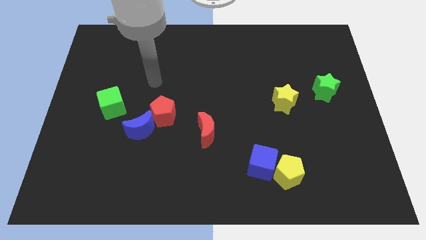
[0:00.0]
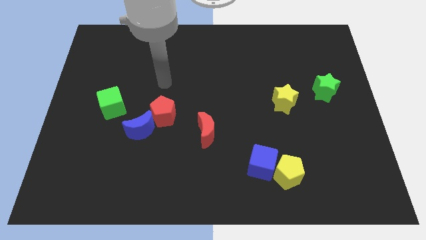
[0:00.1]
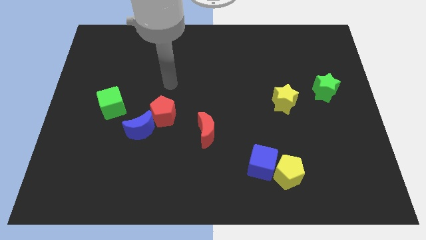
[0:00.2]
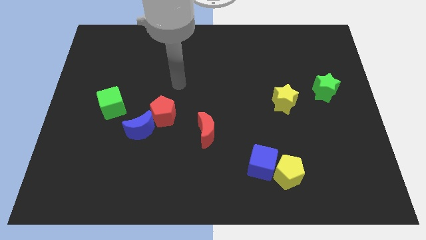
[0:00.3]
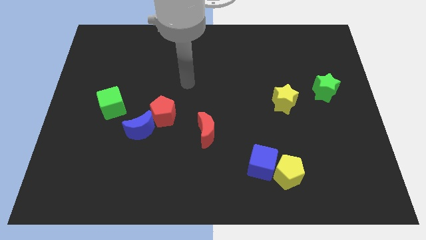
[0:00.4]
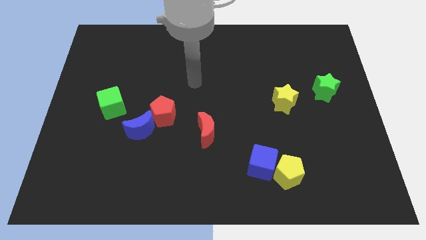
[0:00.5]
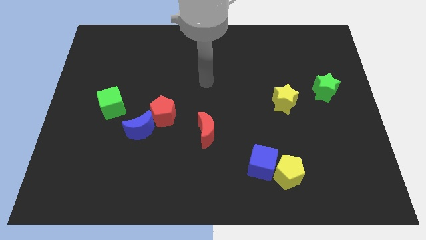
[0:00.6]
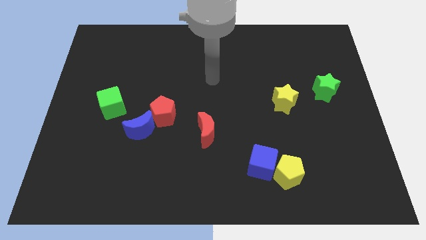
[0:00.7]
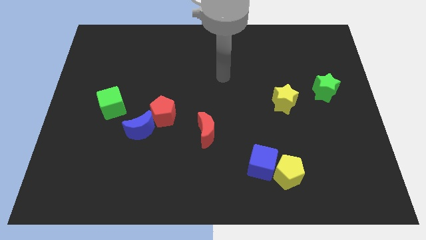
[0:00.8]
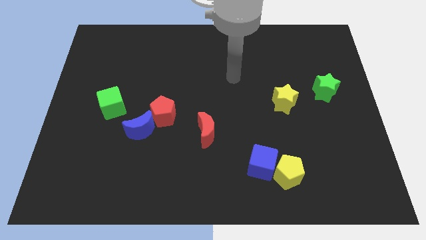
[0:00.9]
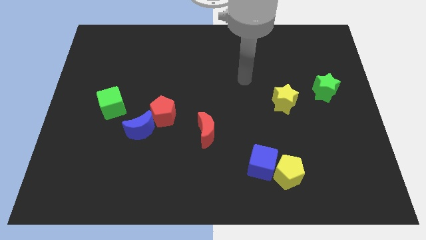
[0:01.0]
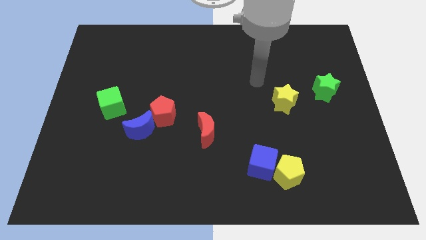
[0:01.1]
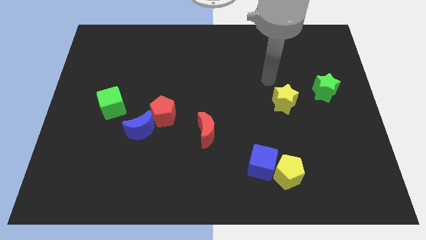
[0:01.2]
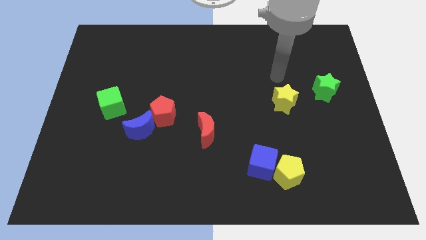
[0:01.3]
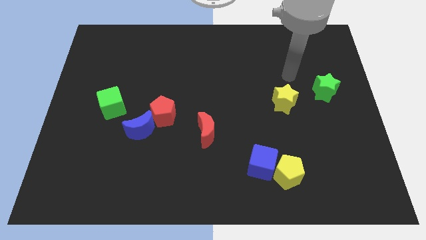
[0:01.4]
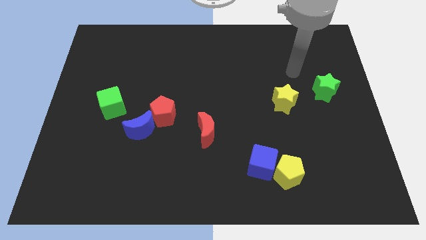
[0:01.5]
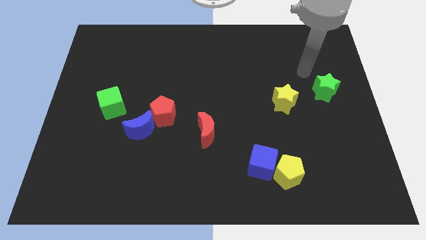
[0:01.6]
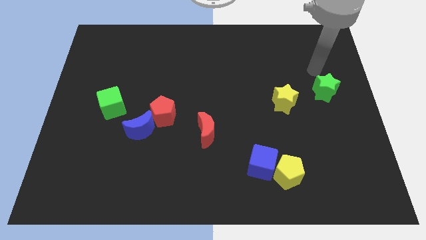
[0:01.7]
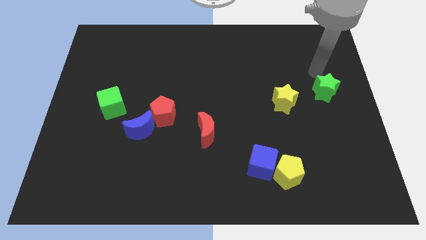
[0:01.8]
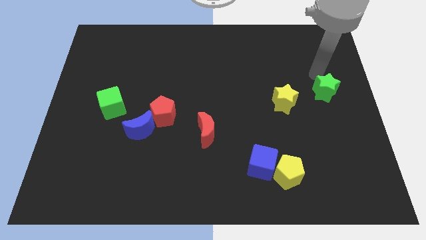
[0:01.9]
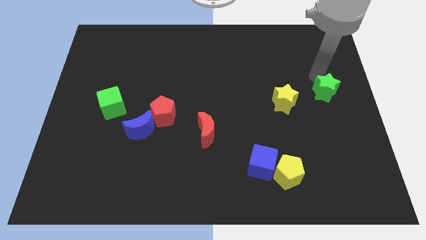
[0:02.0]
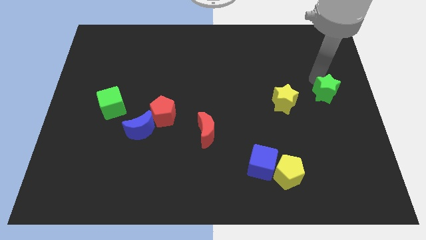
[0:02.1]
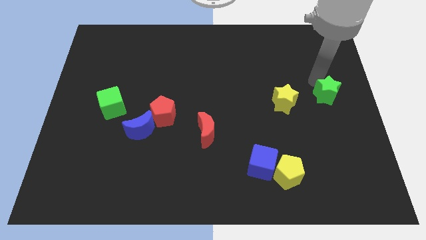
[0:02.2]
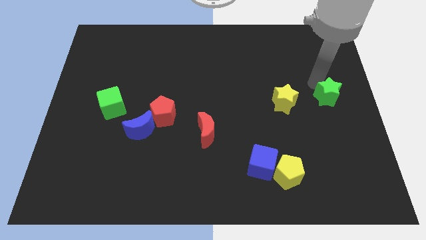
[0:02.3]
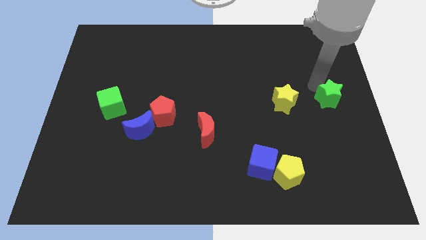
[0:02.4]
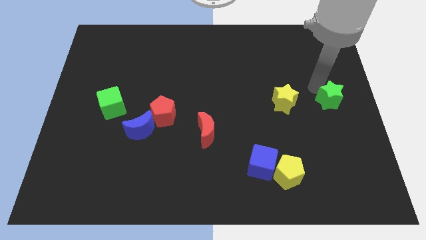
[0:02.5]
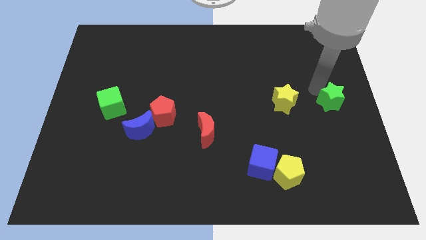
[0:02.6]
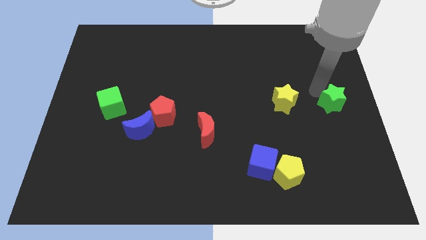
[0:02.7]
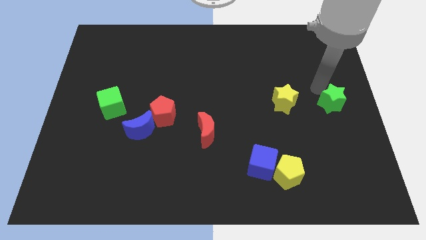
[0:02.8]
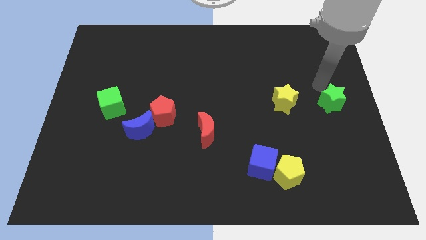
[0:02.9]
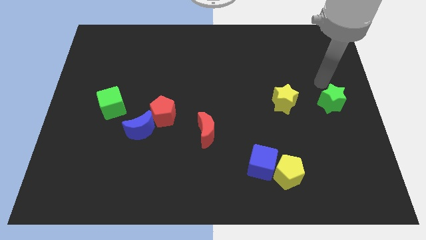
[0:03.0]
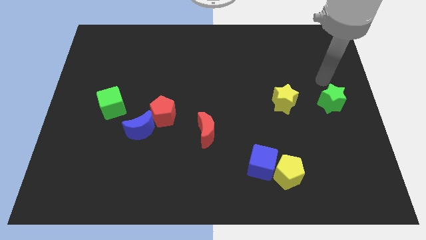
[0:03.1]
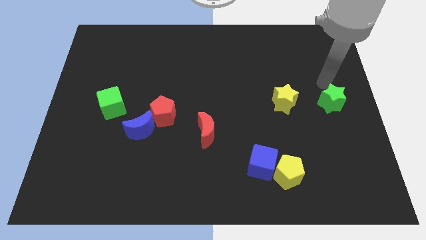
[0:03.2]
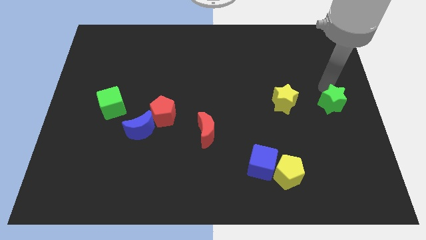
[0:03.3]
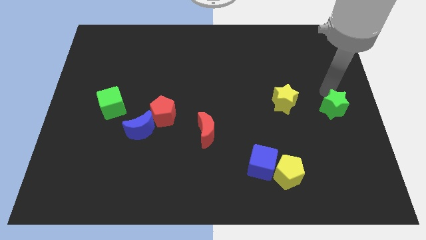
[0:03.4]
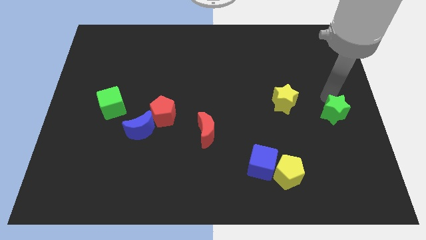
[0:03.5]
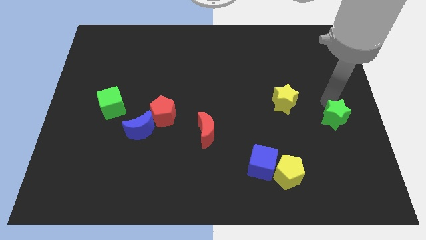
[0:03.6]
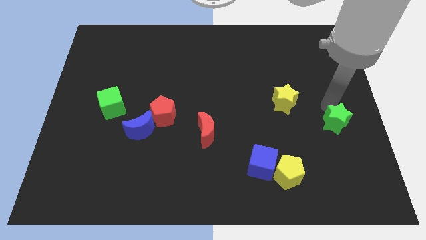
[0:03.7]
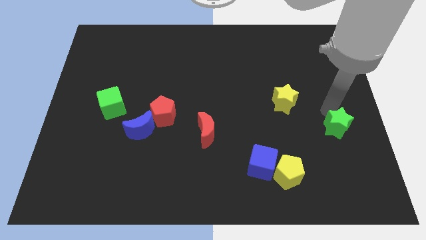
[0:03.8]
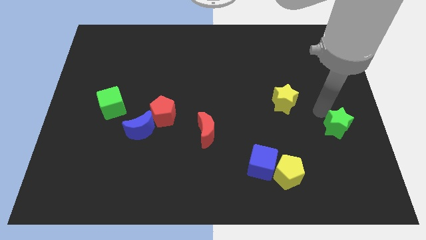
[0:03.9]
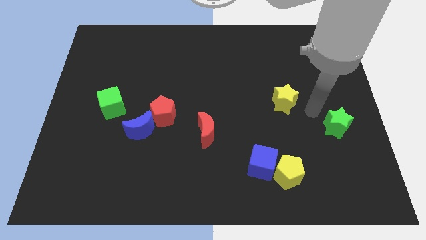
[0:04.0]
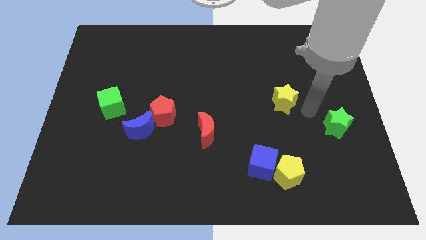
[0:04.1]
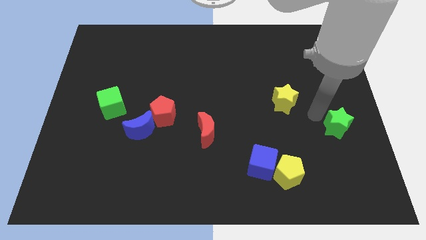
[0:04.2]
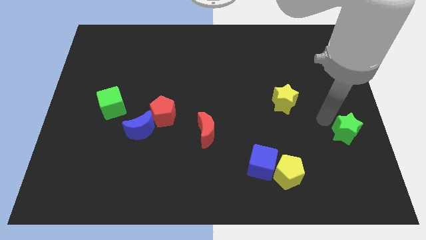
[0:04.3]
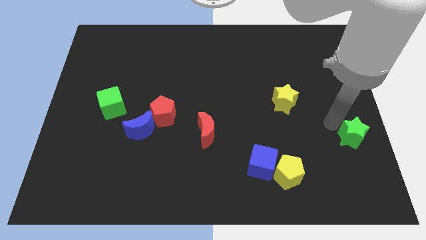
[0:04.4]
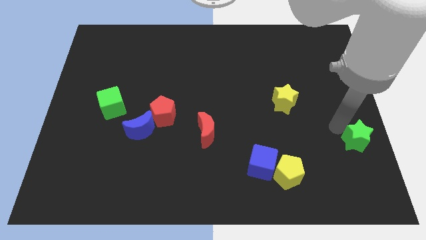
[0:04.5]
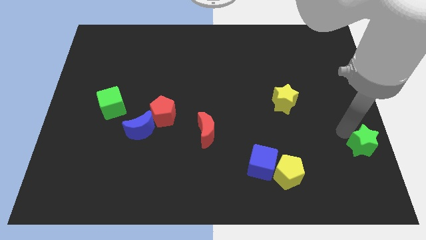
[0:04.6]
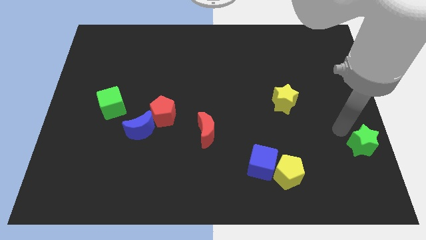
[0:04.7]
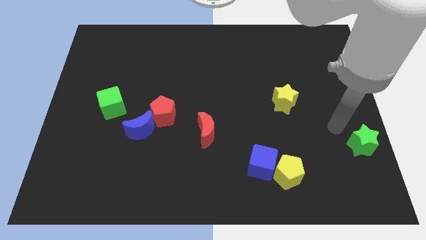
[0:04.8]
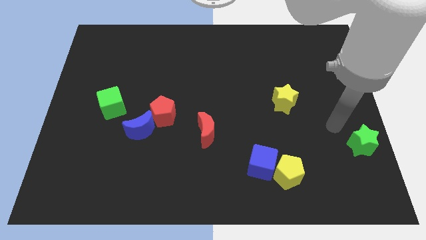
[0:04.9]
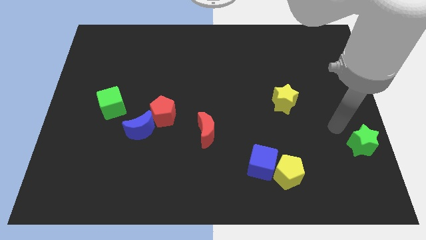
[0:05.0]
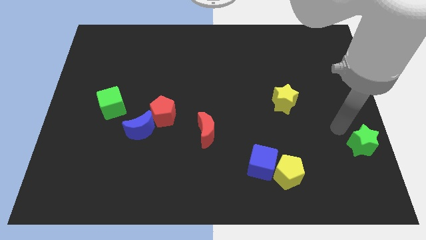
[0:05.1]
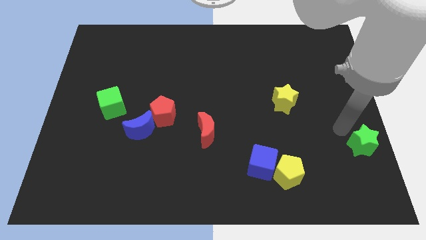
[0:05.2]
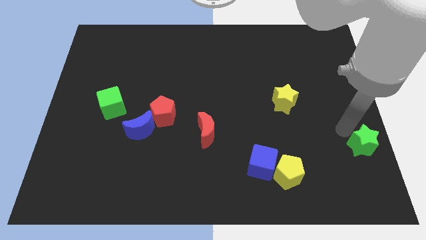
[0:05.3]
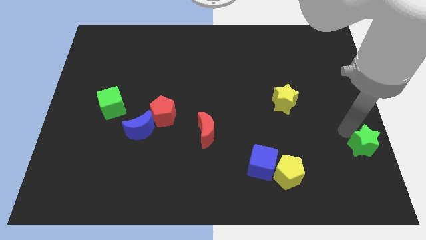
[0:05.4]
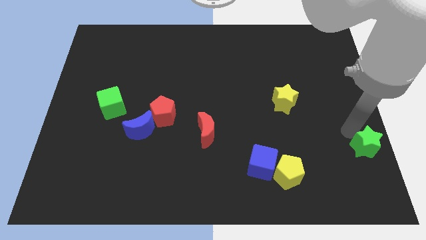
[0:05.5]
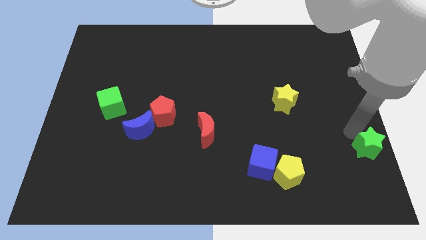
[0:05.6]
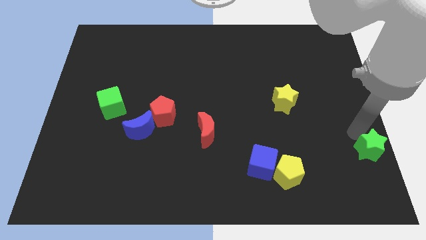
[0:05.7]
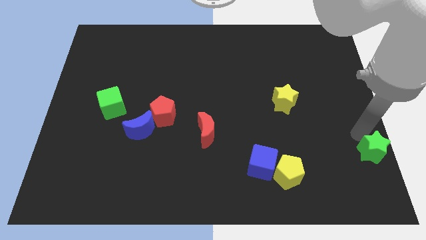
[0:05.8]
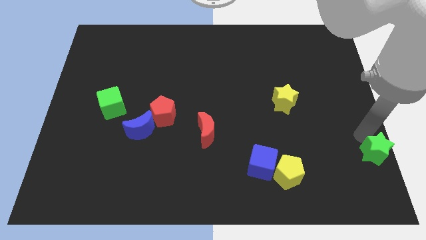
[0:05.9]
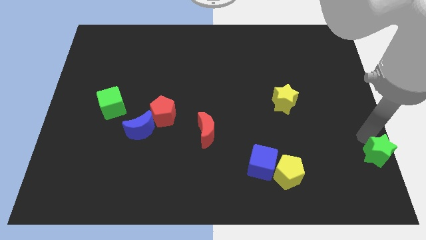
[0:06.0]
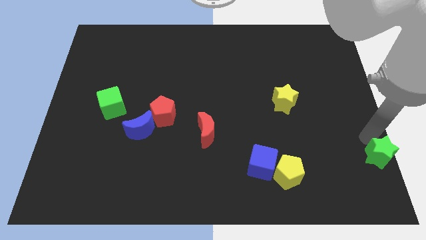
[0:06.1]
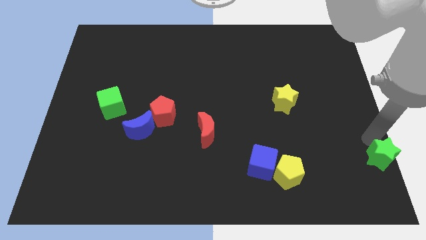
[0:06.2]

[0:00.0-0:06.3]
move the green star to the bottom right
